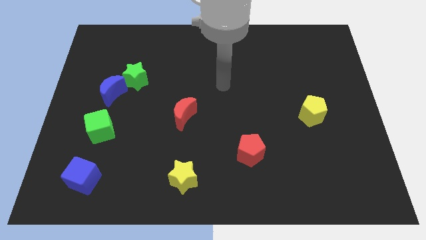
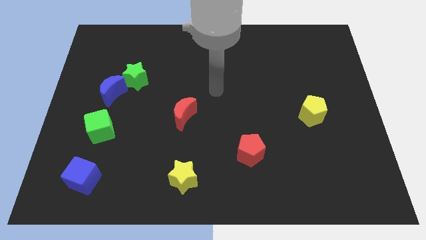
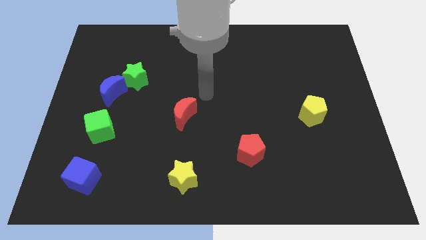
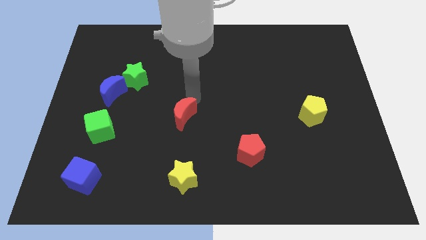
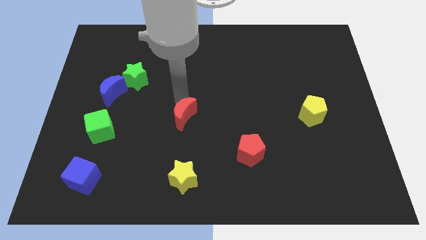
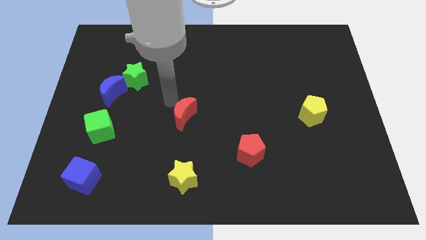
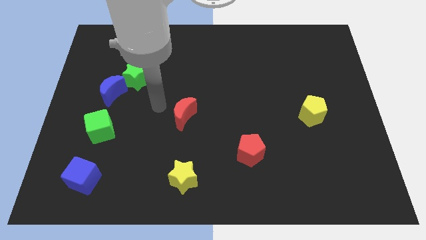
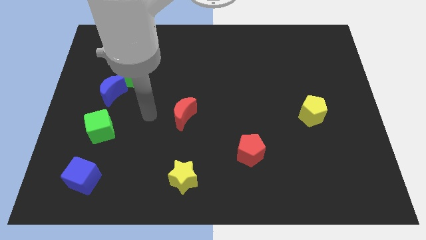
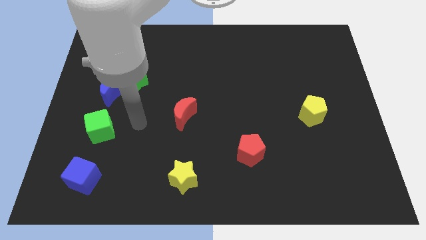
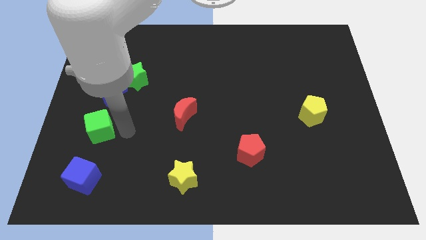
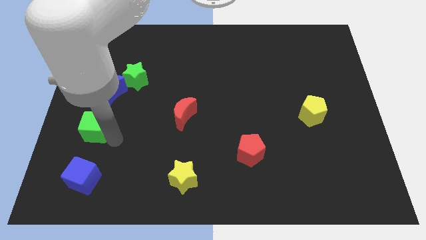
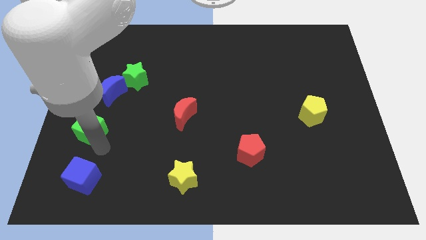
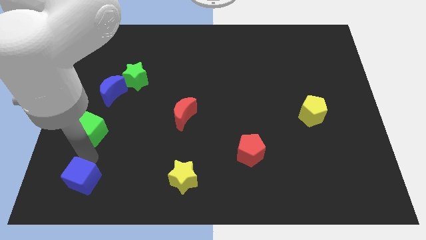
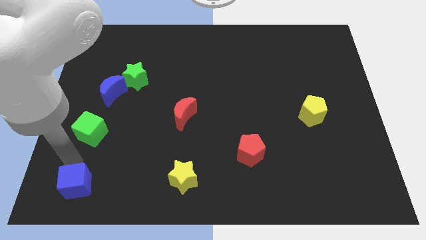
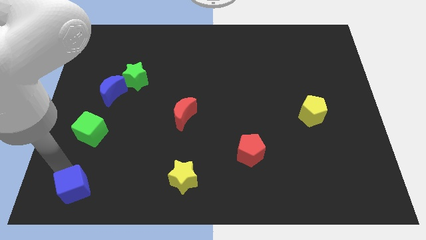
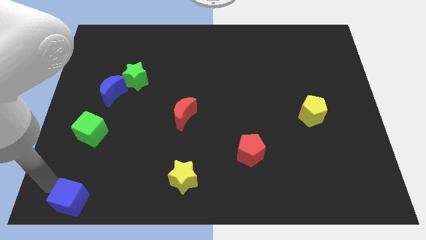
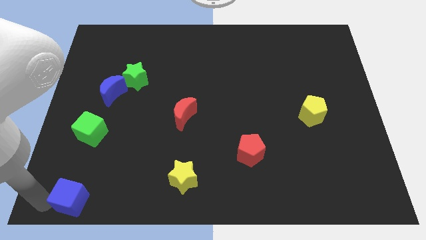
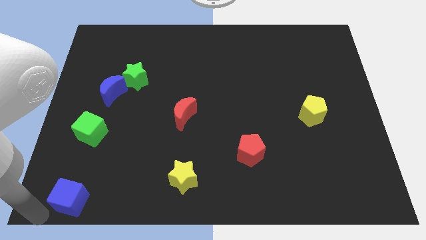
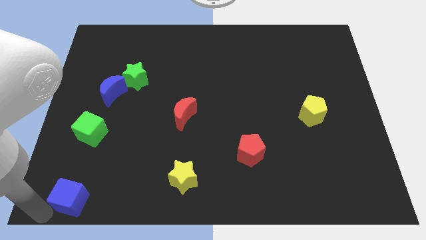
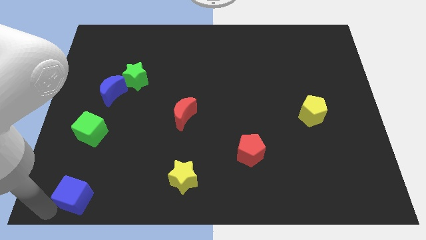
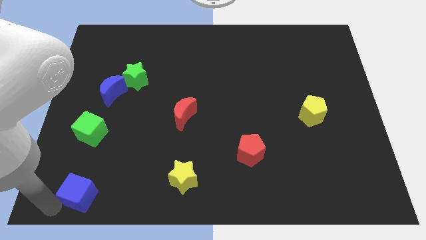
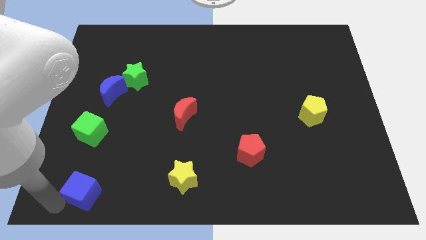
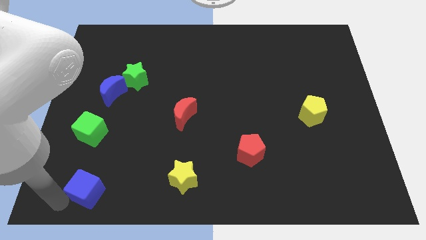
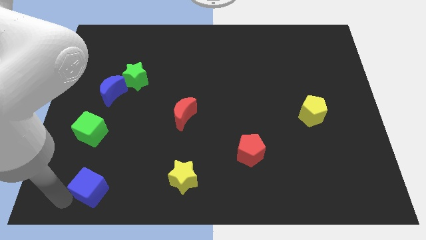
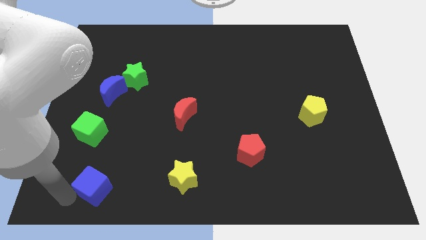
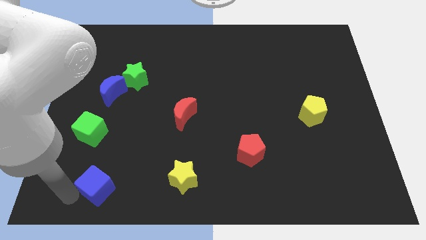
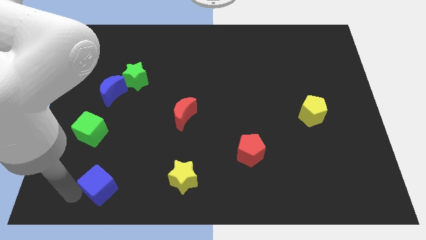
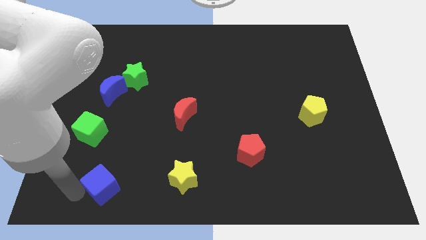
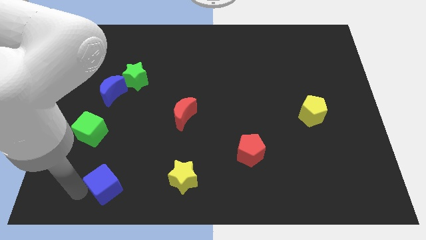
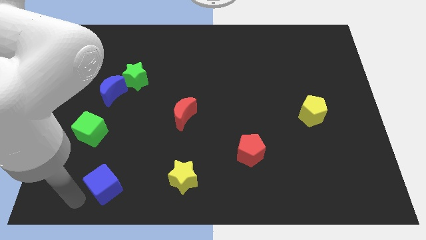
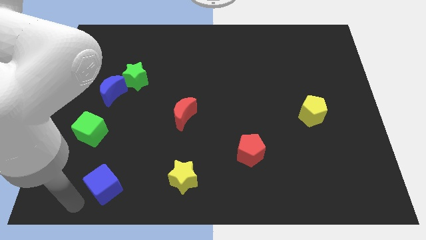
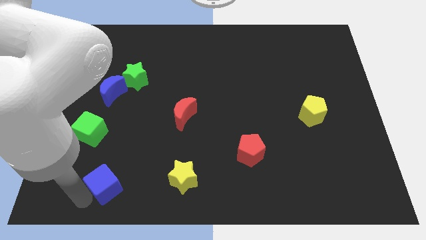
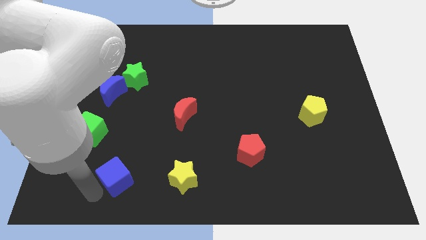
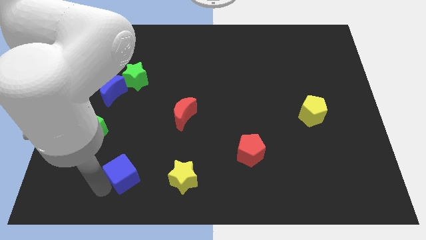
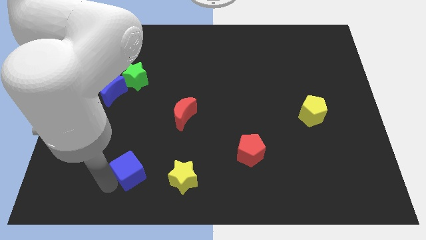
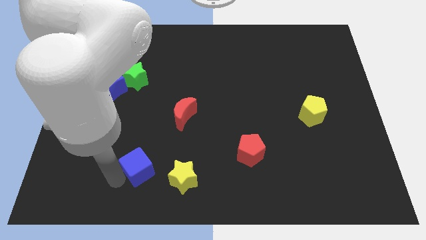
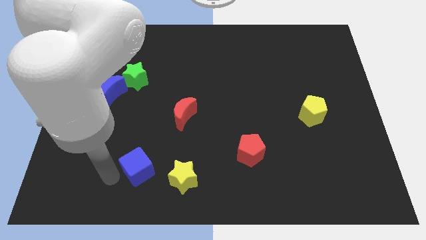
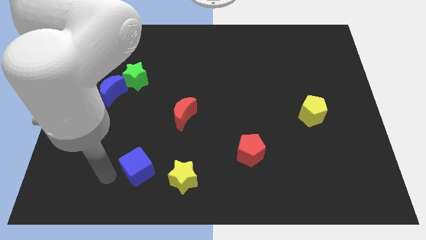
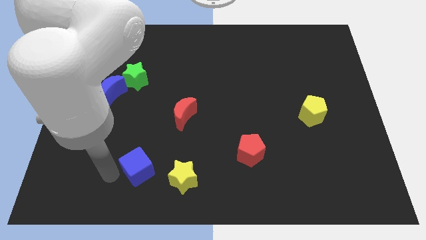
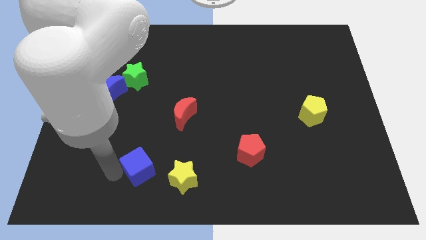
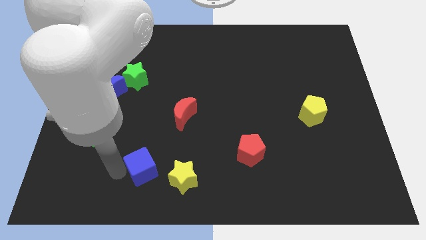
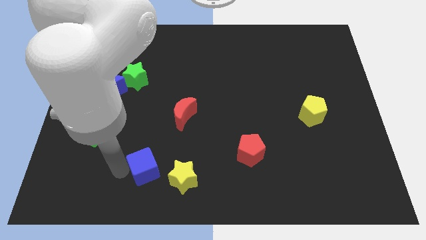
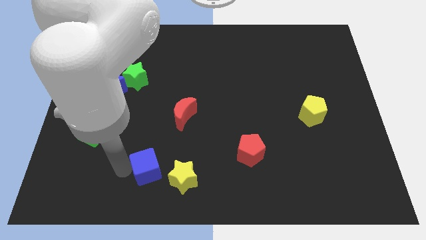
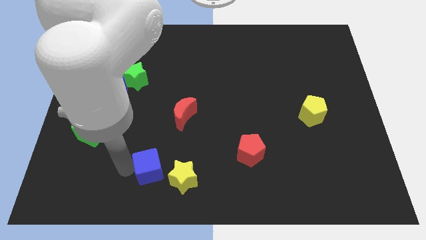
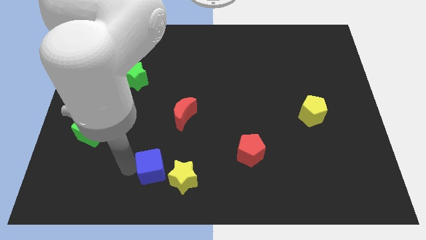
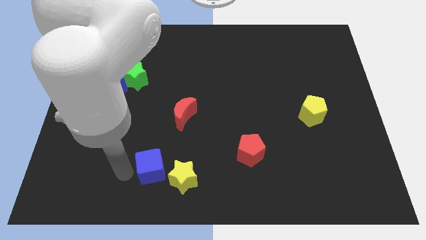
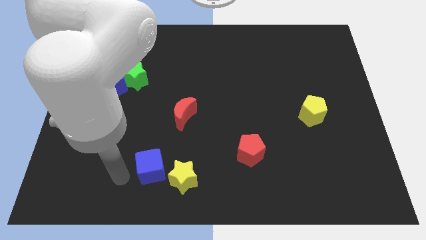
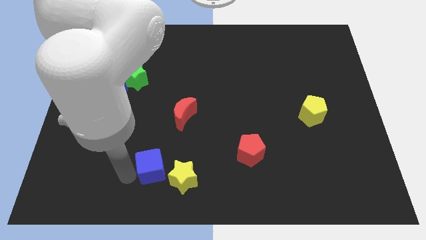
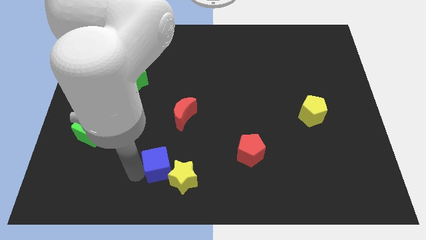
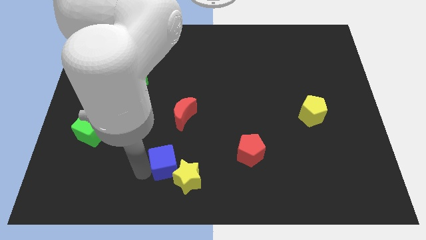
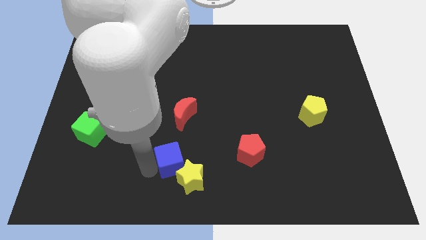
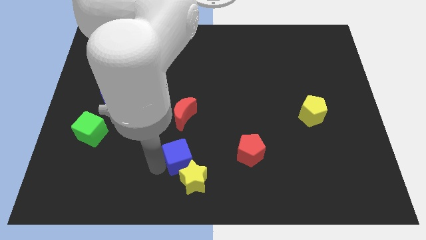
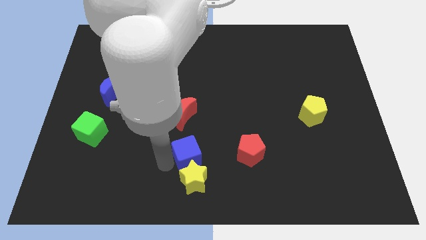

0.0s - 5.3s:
slide the blue cube right

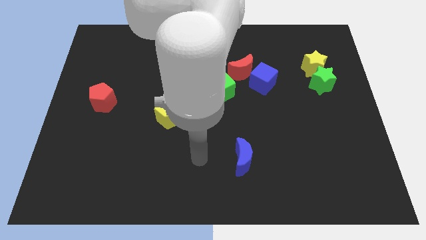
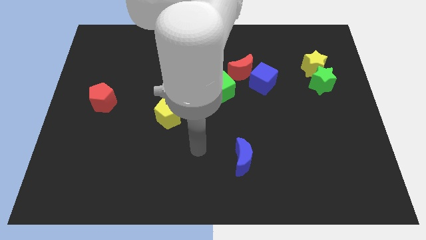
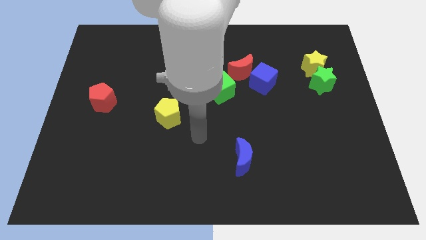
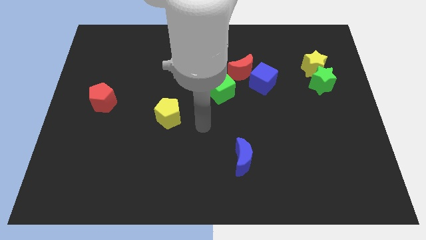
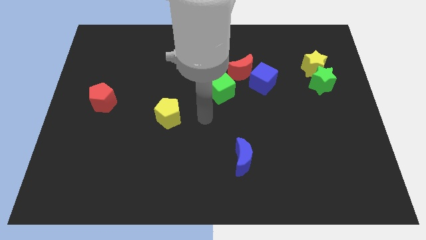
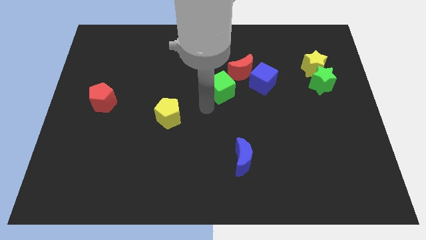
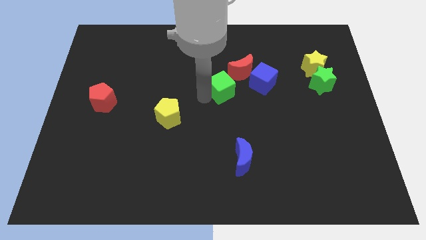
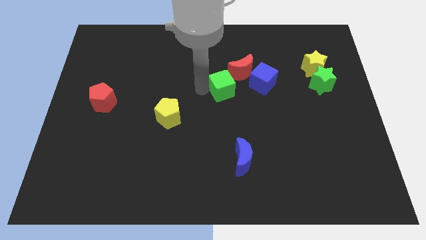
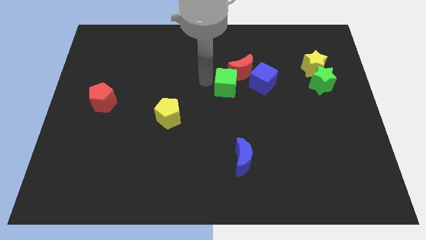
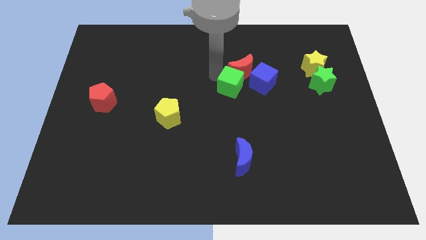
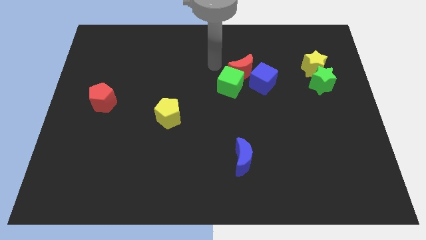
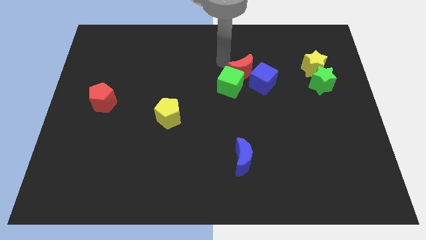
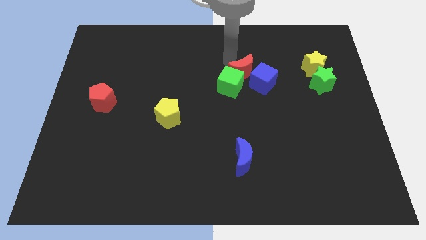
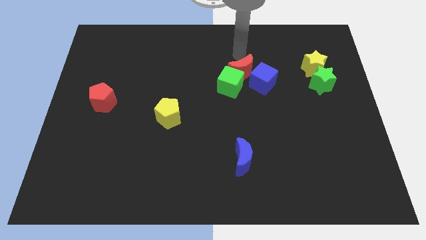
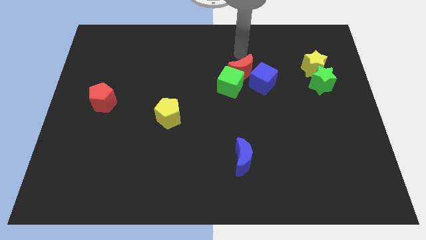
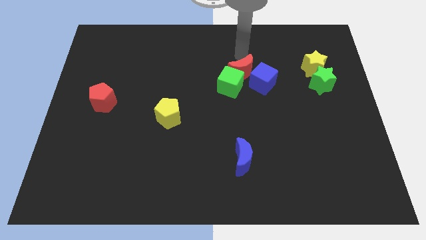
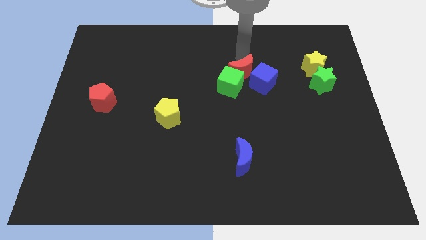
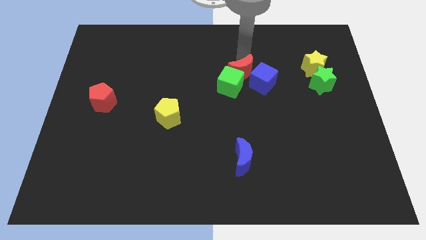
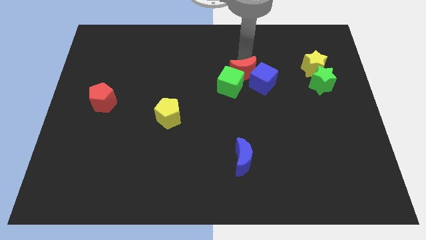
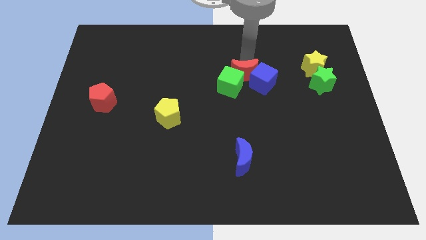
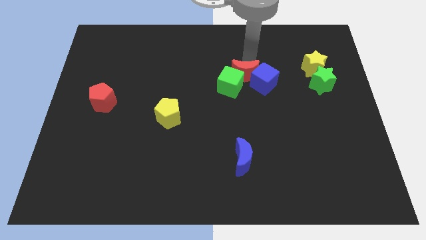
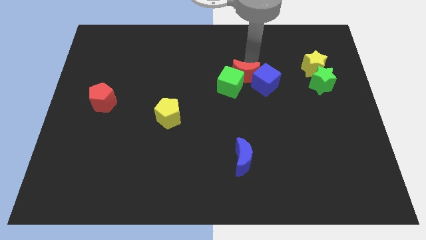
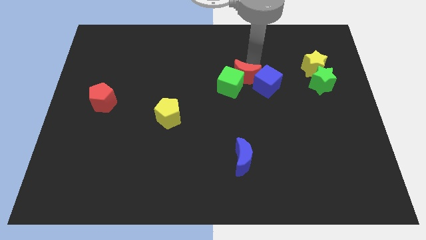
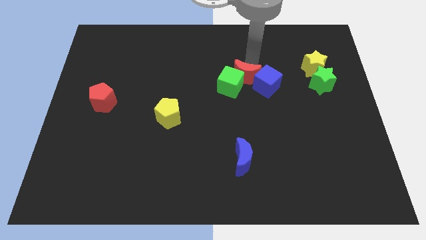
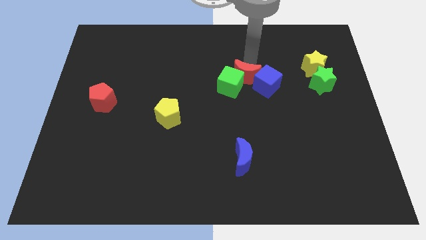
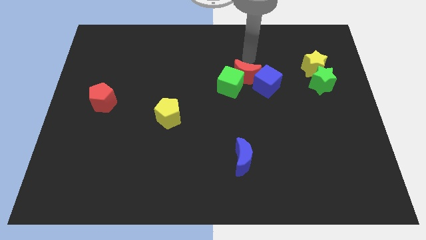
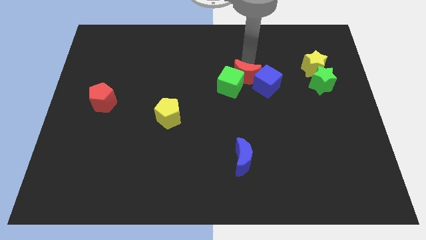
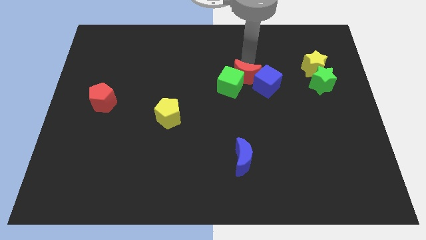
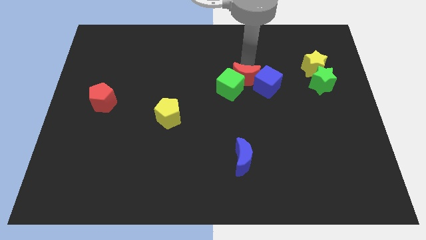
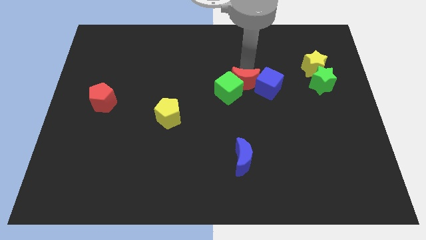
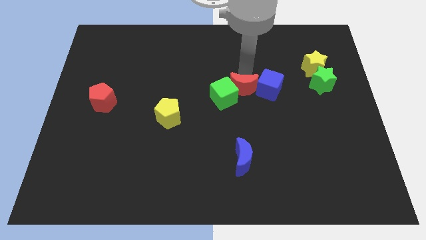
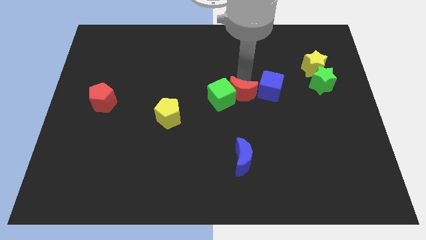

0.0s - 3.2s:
slide the red moon slightly down
